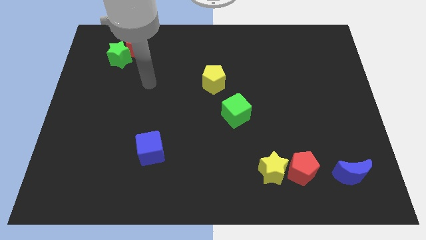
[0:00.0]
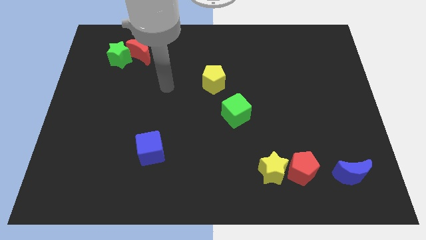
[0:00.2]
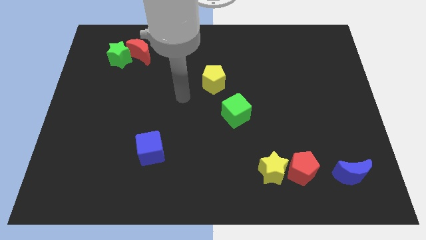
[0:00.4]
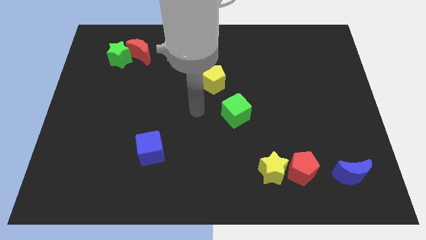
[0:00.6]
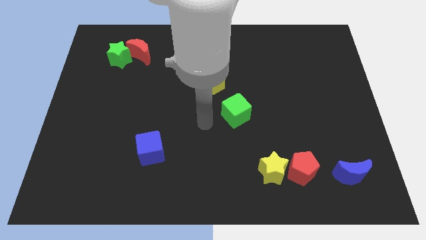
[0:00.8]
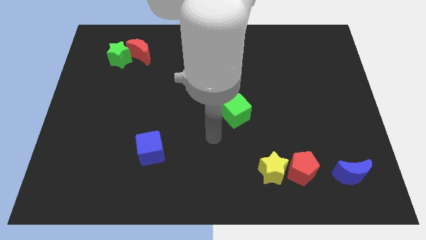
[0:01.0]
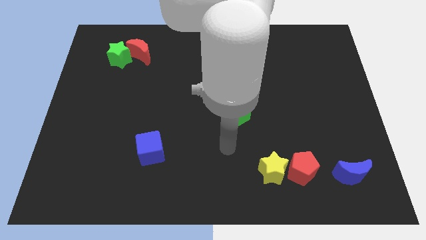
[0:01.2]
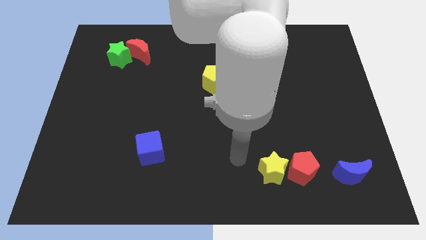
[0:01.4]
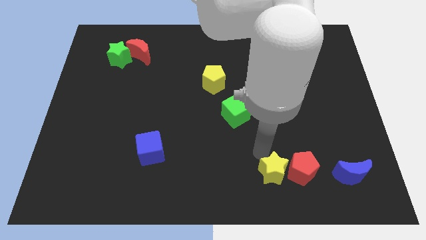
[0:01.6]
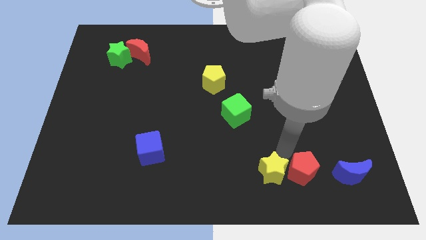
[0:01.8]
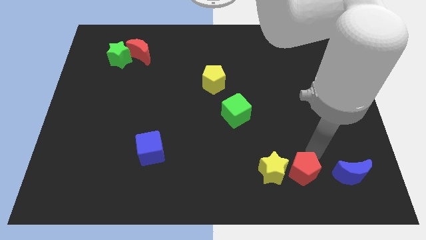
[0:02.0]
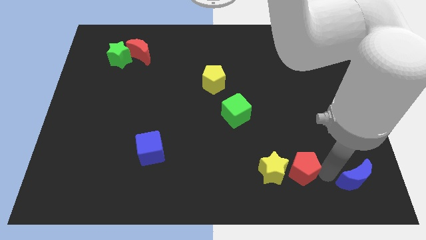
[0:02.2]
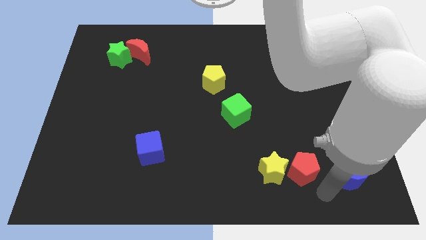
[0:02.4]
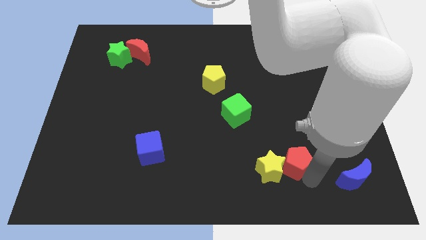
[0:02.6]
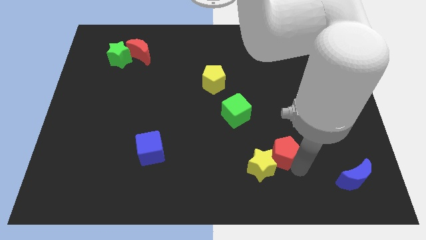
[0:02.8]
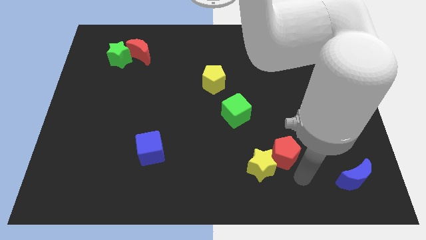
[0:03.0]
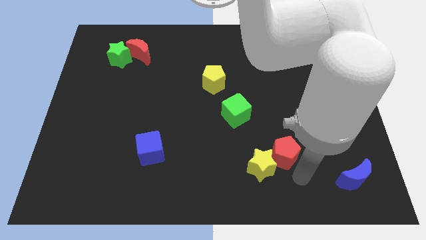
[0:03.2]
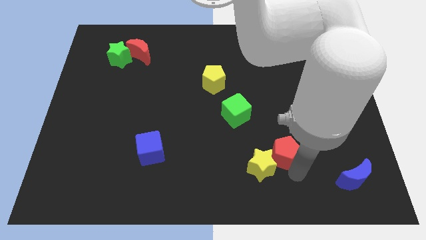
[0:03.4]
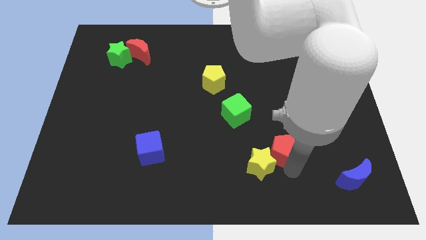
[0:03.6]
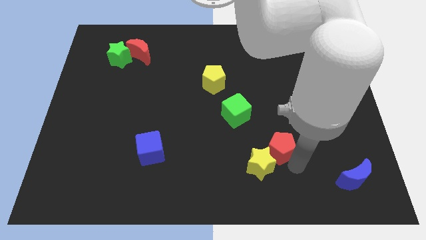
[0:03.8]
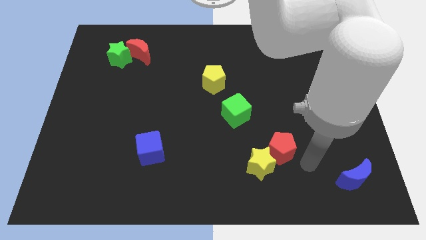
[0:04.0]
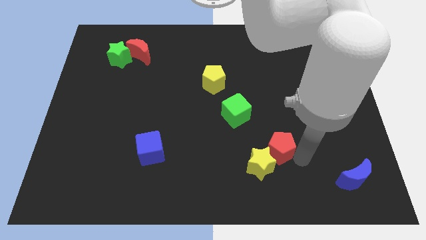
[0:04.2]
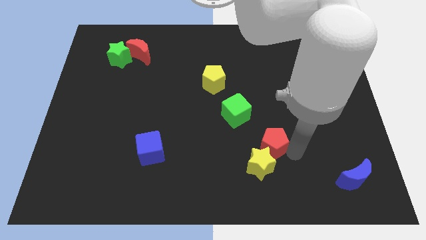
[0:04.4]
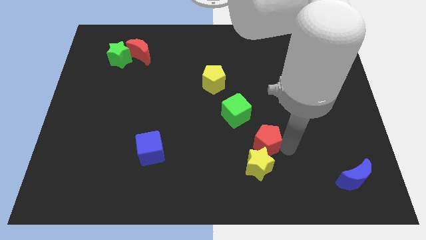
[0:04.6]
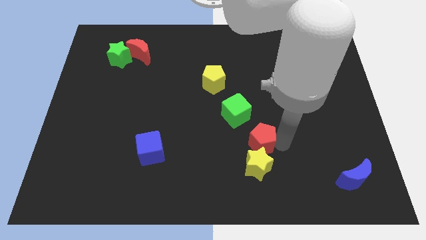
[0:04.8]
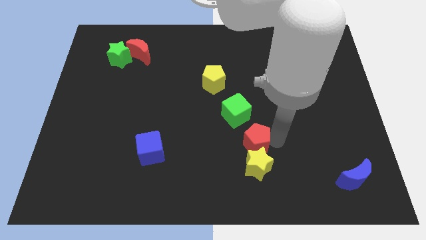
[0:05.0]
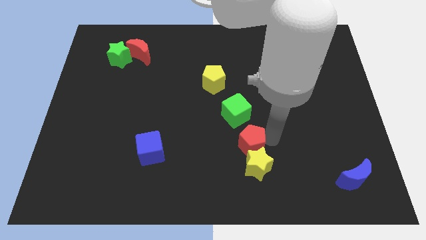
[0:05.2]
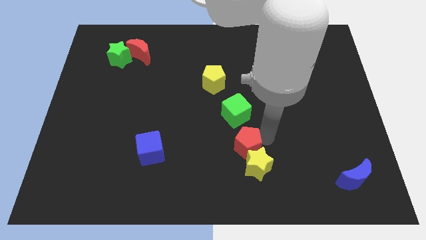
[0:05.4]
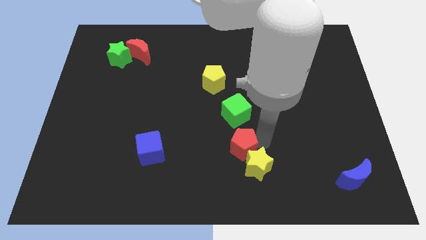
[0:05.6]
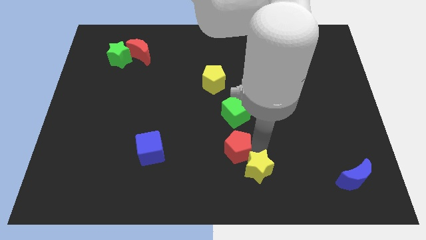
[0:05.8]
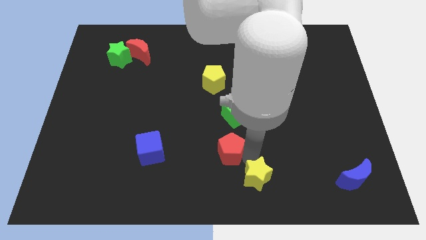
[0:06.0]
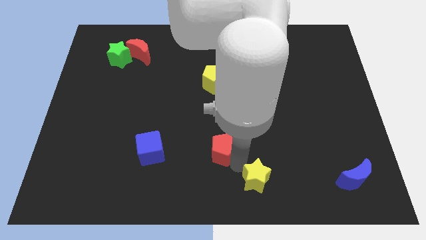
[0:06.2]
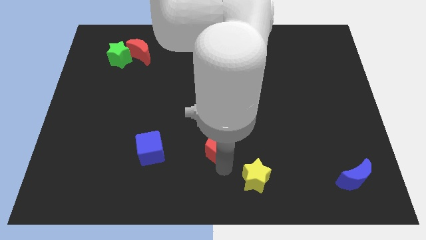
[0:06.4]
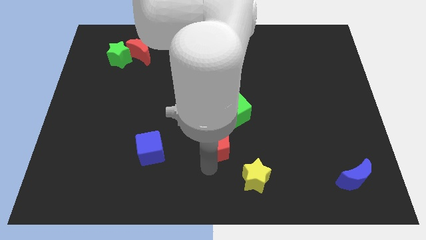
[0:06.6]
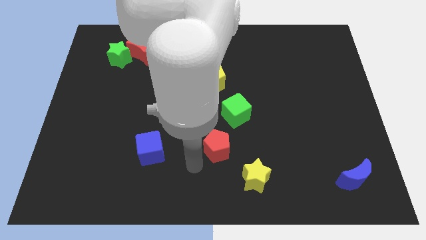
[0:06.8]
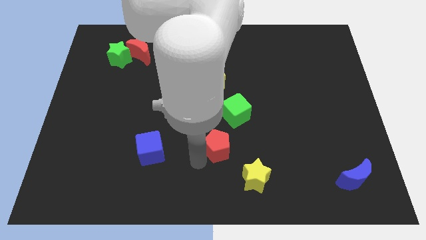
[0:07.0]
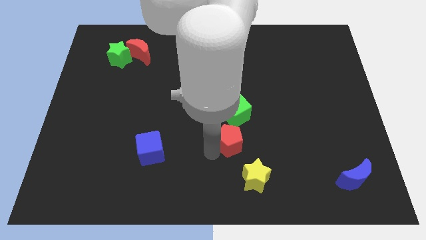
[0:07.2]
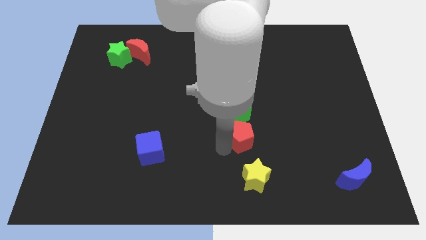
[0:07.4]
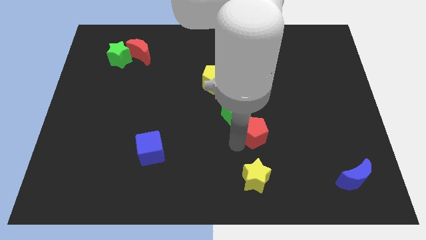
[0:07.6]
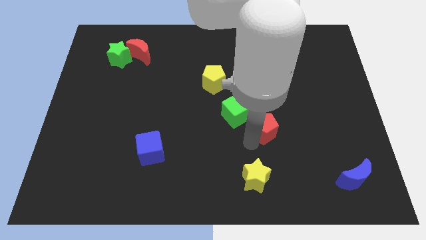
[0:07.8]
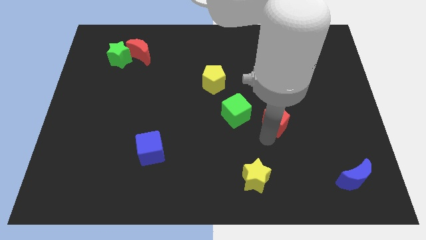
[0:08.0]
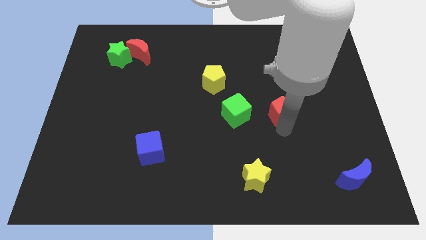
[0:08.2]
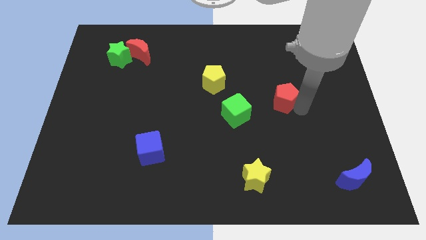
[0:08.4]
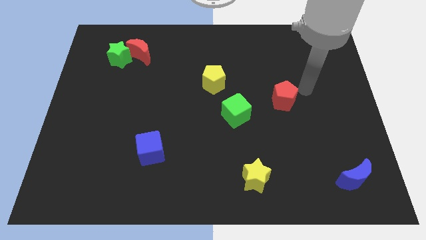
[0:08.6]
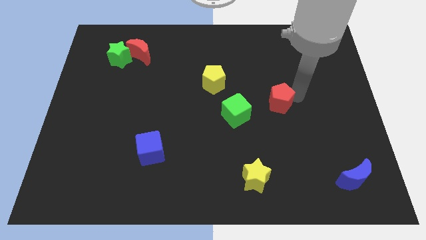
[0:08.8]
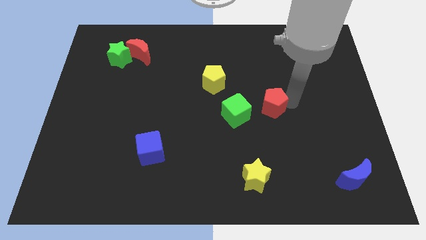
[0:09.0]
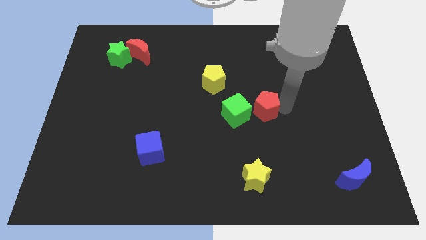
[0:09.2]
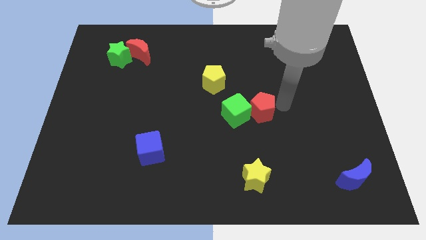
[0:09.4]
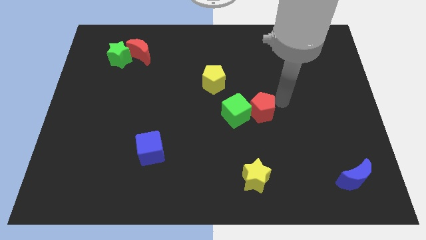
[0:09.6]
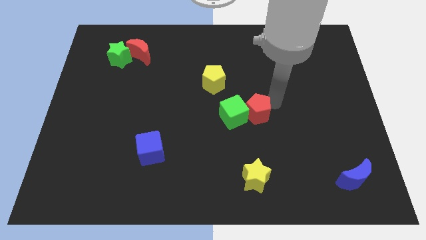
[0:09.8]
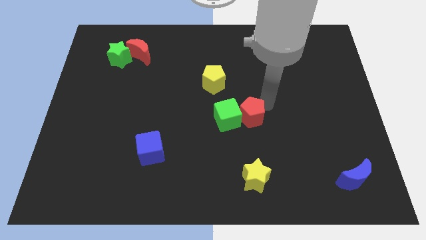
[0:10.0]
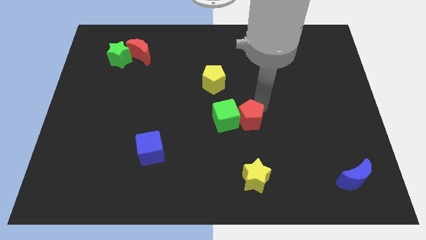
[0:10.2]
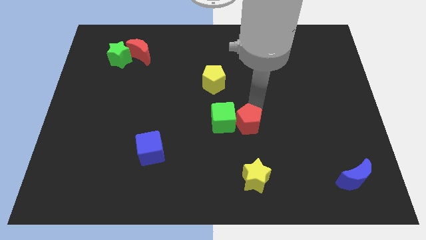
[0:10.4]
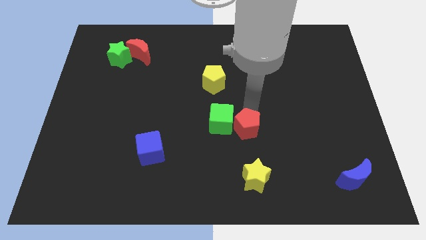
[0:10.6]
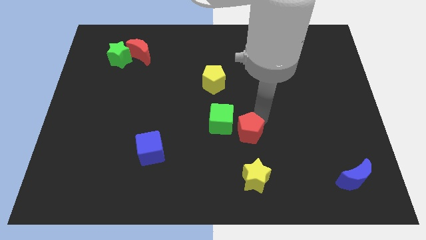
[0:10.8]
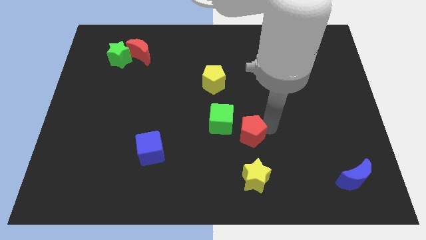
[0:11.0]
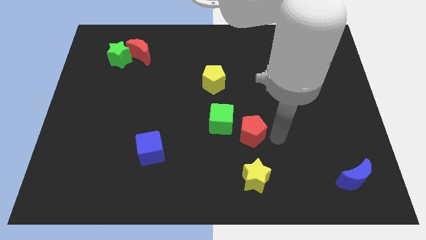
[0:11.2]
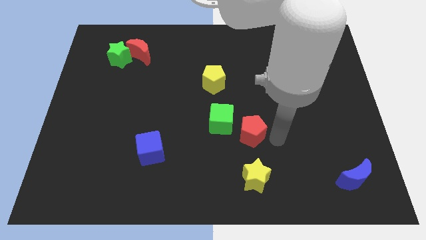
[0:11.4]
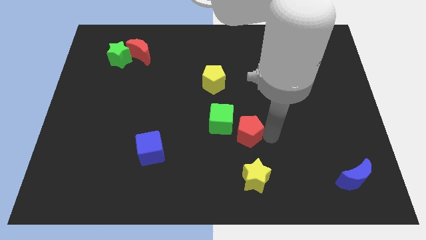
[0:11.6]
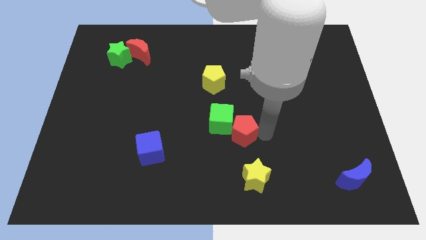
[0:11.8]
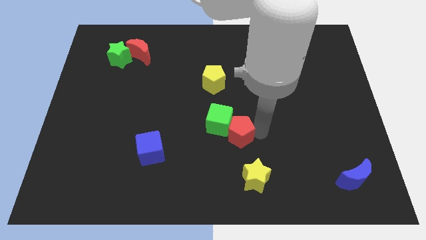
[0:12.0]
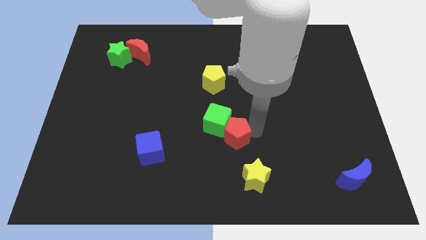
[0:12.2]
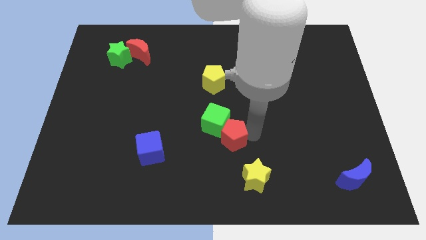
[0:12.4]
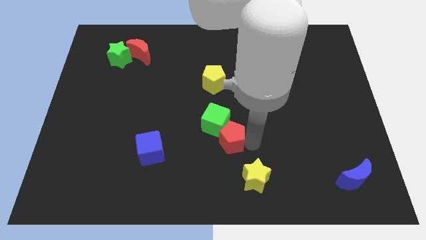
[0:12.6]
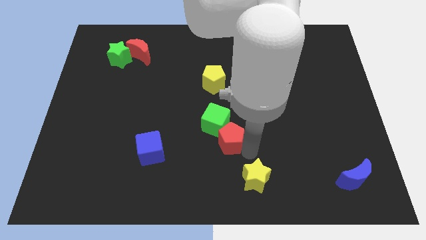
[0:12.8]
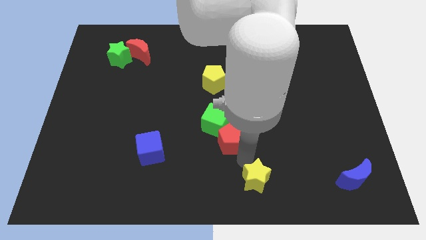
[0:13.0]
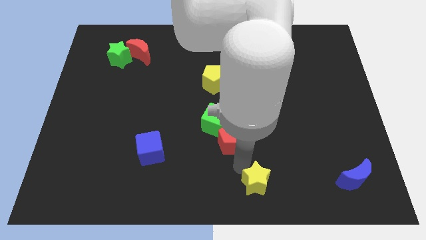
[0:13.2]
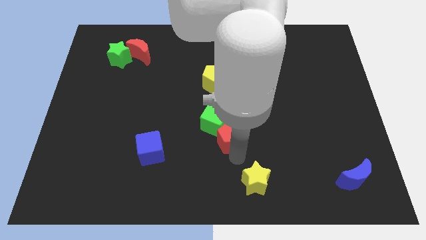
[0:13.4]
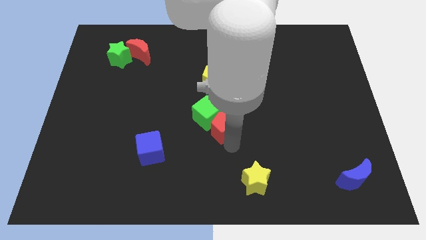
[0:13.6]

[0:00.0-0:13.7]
move the red pentagon to the bottom of the yellow pentagon

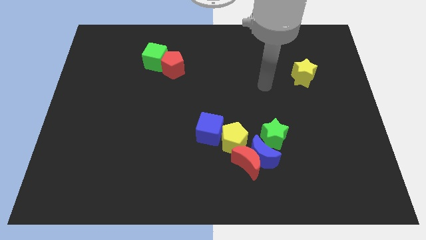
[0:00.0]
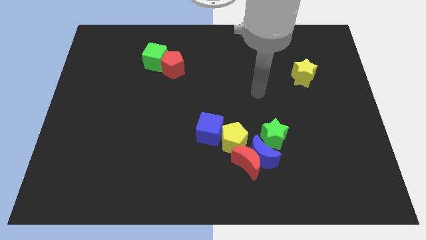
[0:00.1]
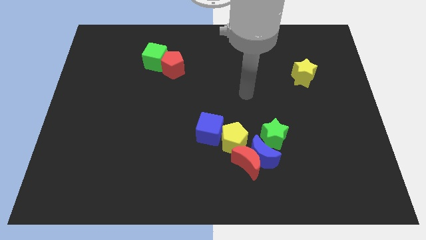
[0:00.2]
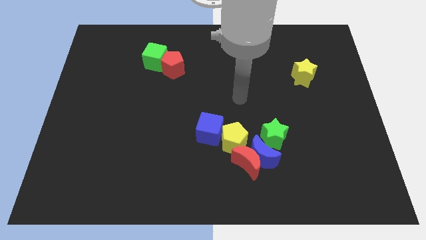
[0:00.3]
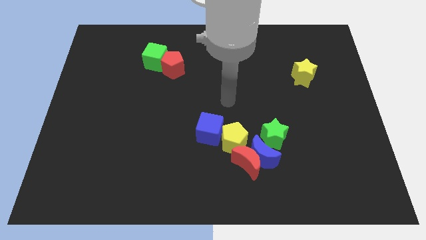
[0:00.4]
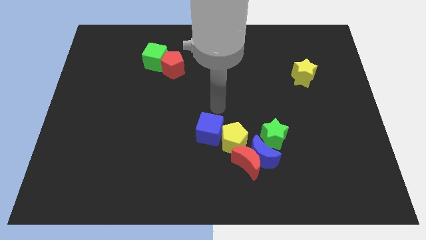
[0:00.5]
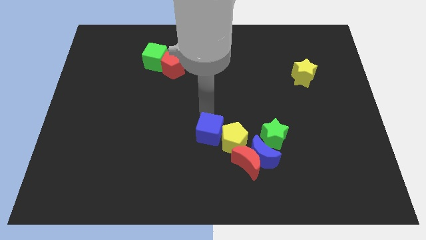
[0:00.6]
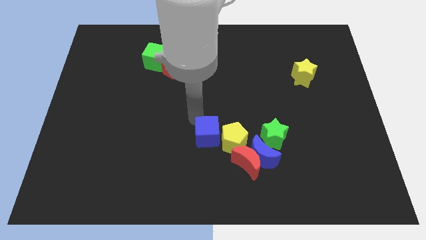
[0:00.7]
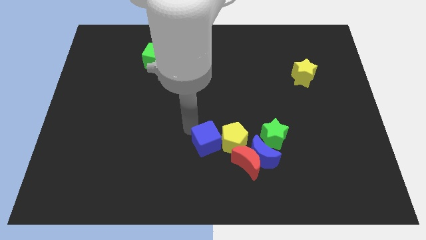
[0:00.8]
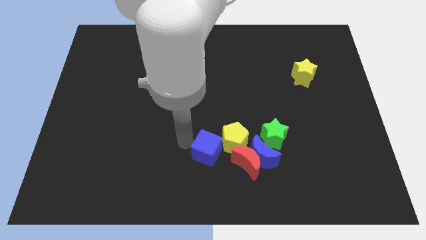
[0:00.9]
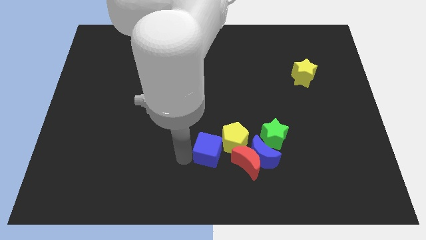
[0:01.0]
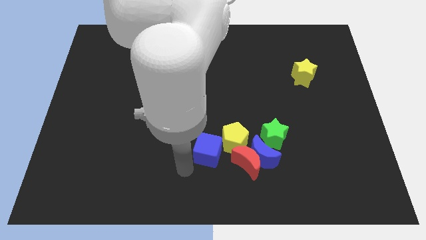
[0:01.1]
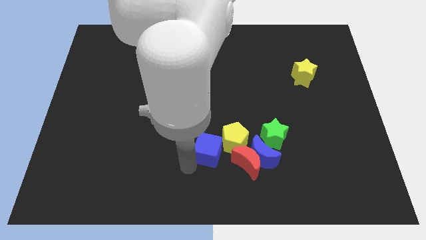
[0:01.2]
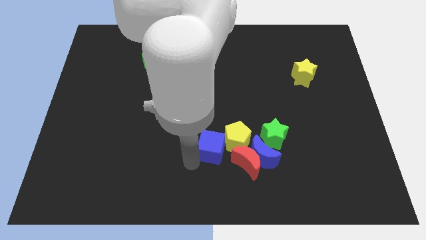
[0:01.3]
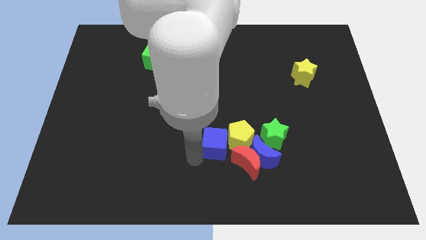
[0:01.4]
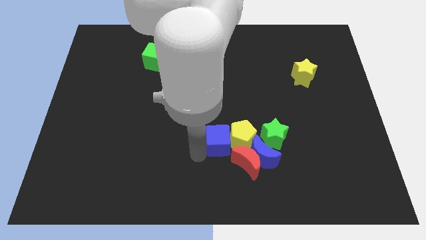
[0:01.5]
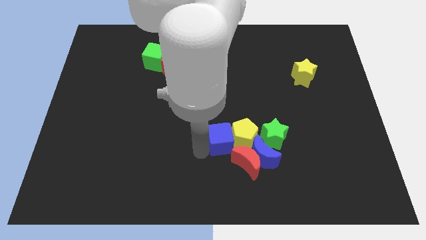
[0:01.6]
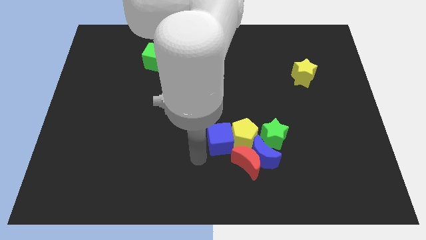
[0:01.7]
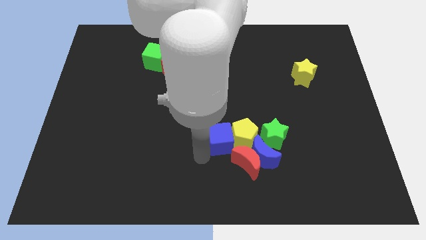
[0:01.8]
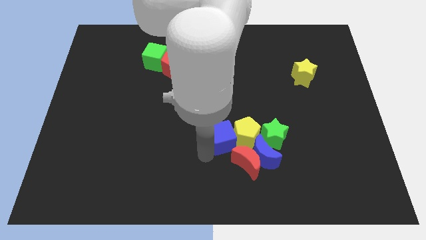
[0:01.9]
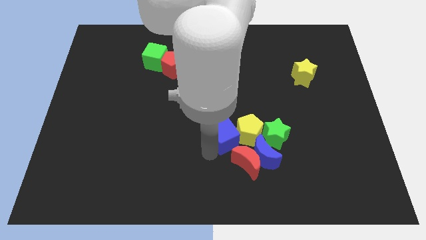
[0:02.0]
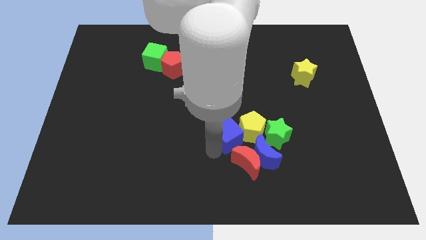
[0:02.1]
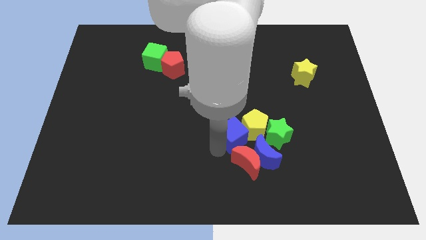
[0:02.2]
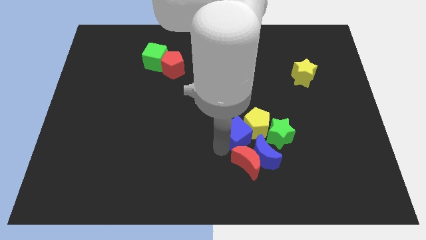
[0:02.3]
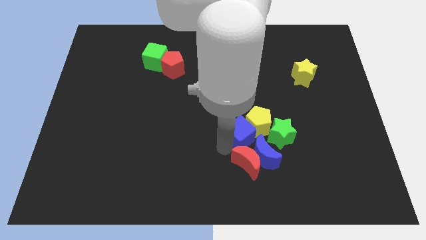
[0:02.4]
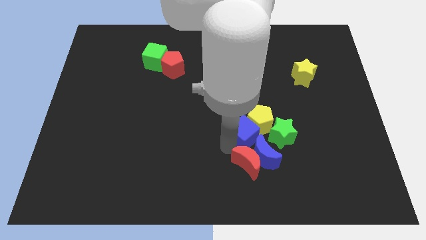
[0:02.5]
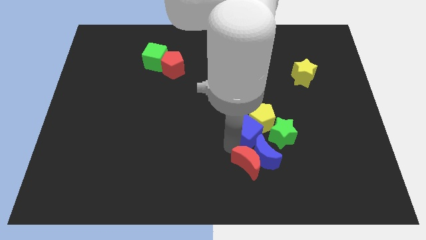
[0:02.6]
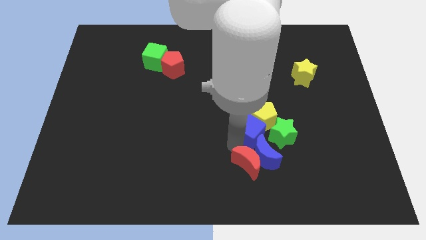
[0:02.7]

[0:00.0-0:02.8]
slide the blue cube to the top left of the green star
